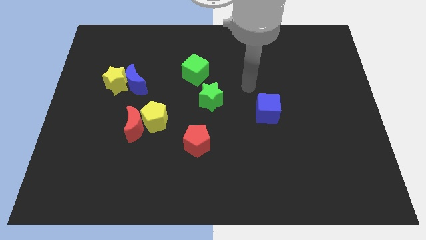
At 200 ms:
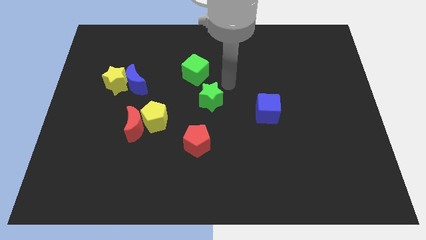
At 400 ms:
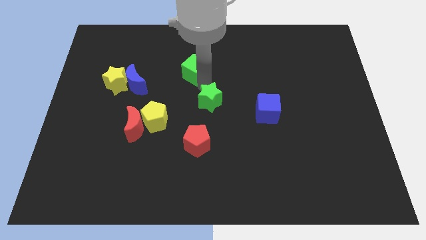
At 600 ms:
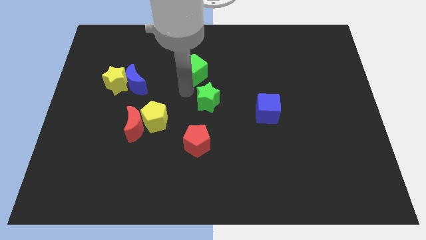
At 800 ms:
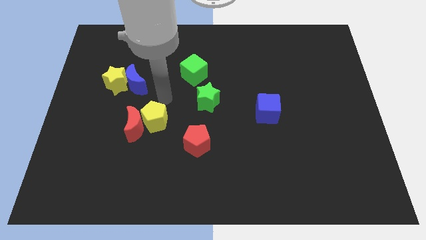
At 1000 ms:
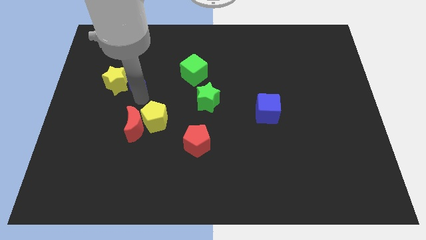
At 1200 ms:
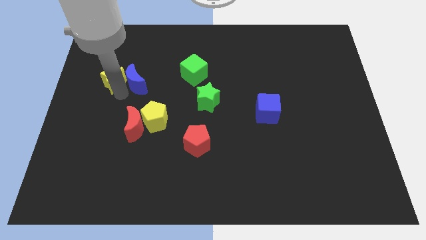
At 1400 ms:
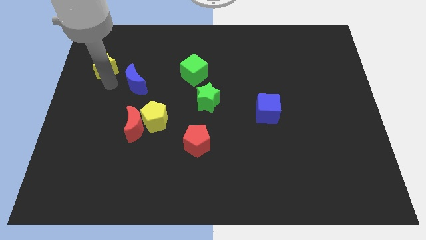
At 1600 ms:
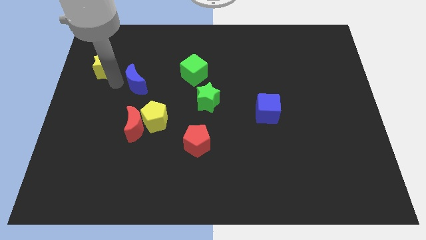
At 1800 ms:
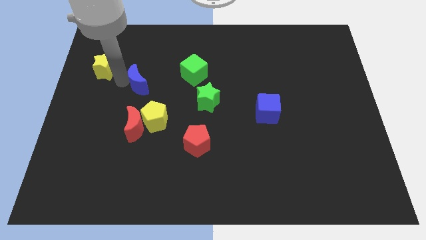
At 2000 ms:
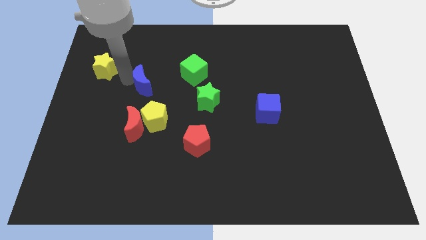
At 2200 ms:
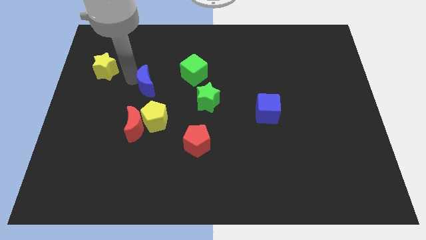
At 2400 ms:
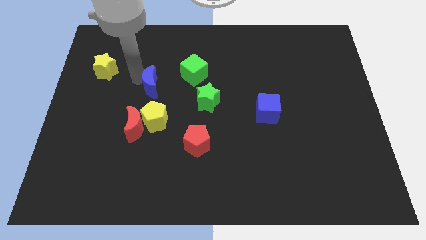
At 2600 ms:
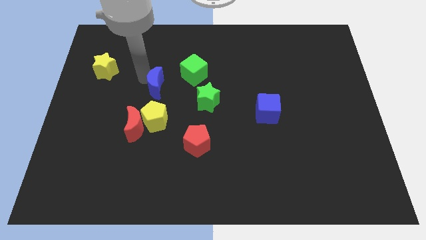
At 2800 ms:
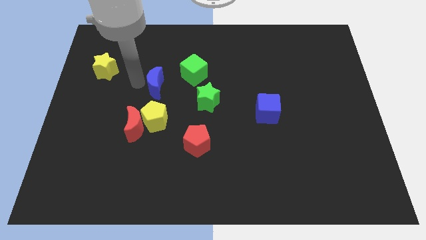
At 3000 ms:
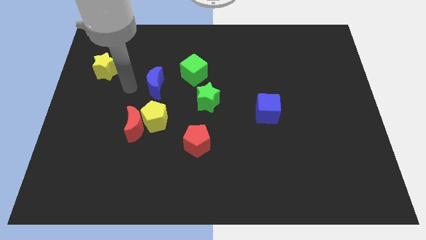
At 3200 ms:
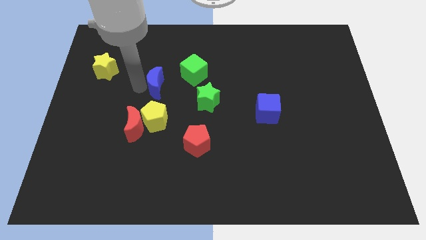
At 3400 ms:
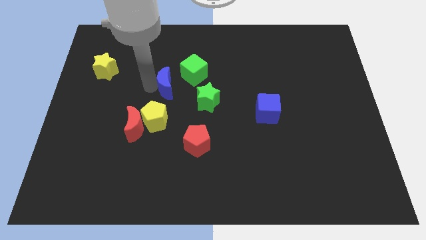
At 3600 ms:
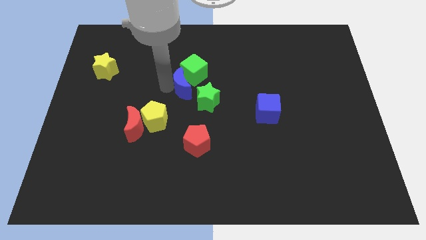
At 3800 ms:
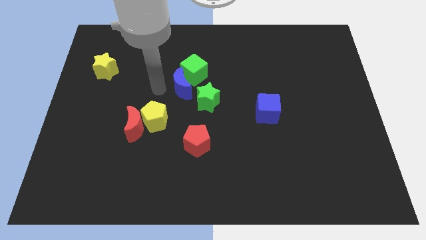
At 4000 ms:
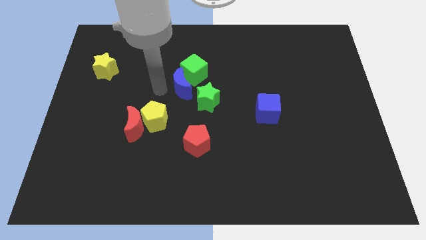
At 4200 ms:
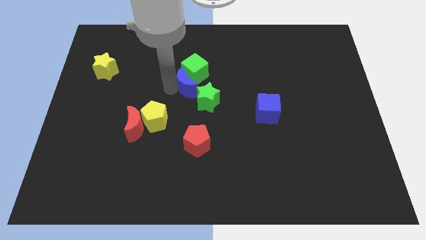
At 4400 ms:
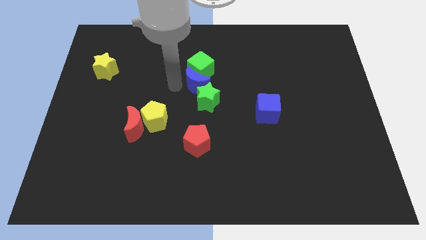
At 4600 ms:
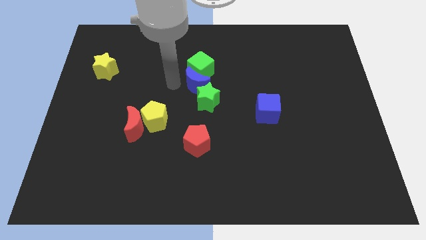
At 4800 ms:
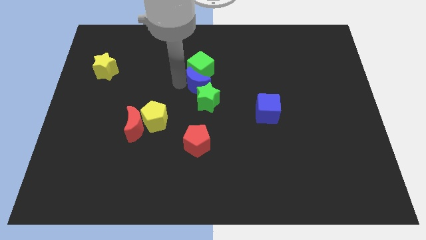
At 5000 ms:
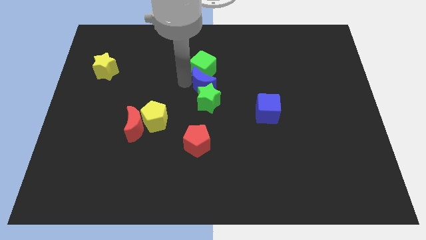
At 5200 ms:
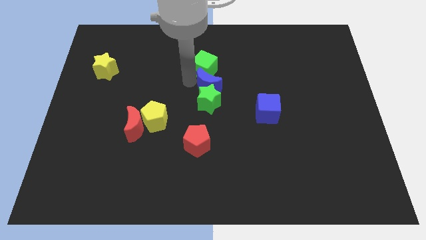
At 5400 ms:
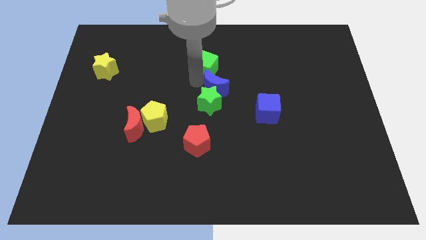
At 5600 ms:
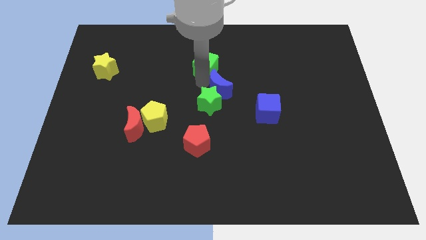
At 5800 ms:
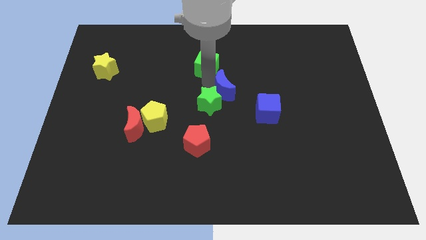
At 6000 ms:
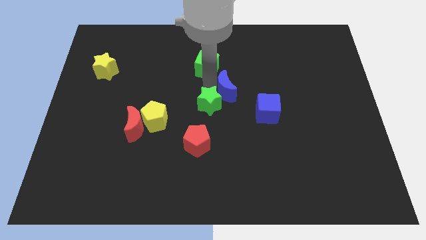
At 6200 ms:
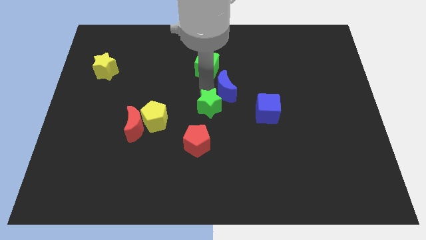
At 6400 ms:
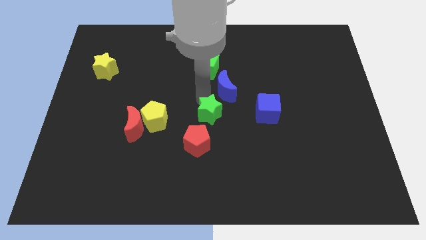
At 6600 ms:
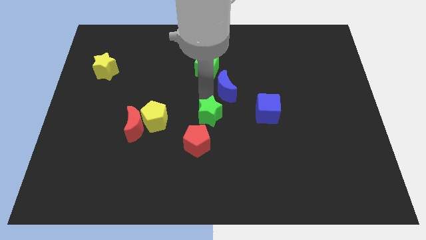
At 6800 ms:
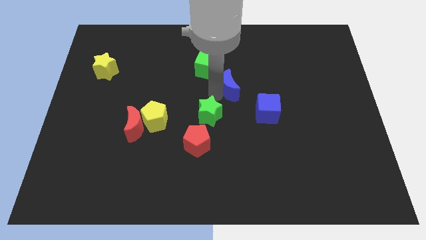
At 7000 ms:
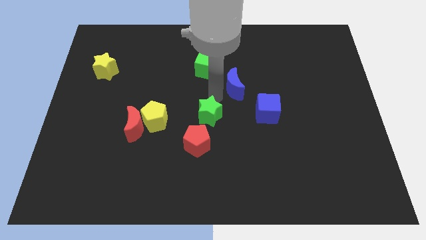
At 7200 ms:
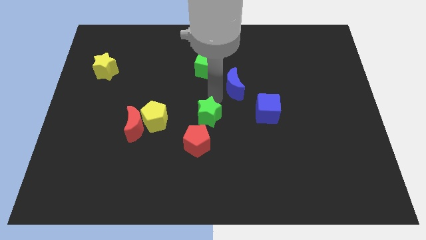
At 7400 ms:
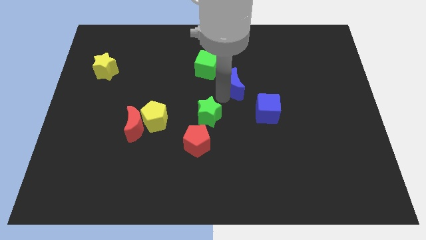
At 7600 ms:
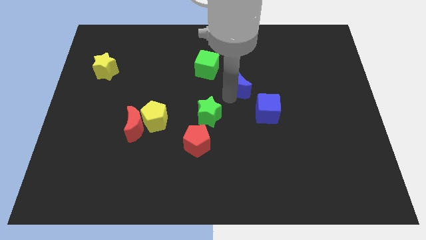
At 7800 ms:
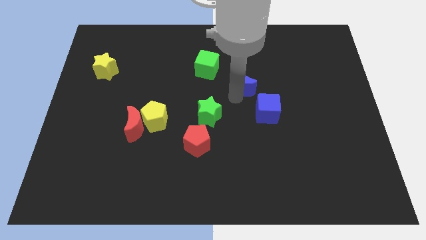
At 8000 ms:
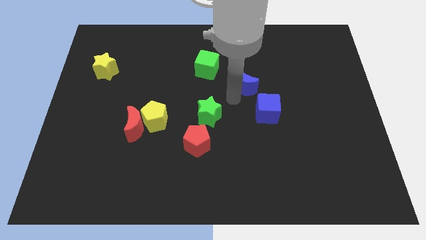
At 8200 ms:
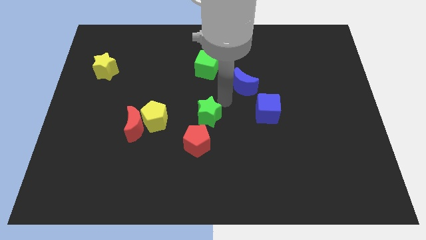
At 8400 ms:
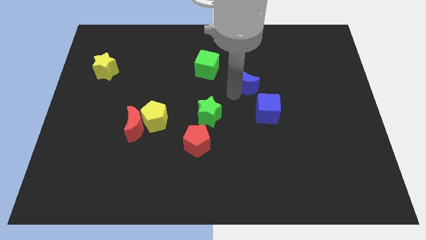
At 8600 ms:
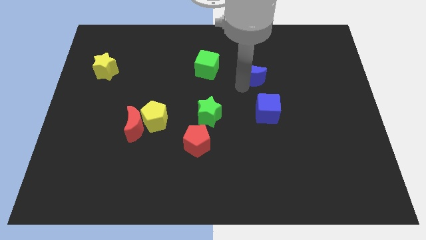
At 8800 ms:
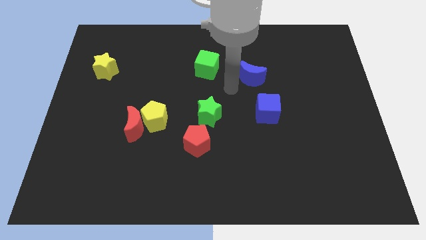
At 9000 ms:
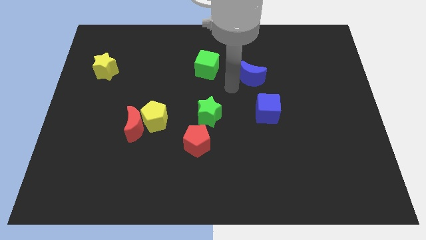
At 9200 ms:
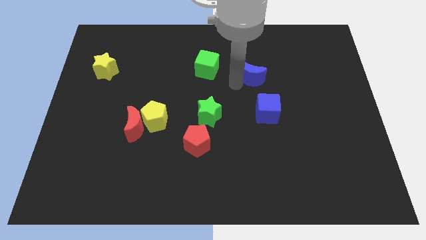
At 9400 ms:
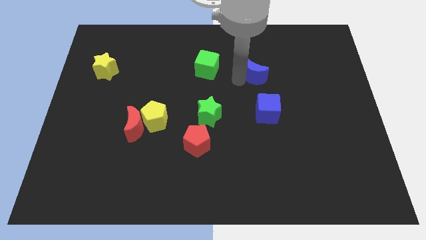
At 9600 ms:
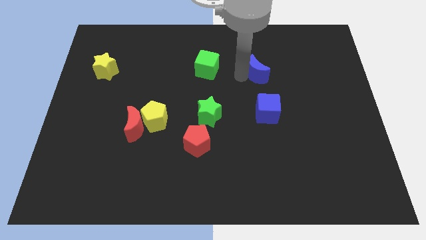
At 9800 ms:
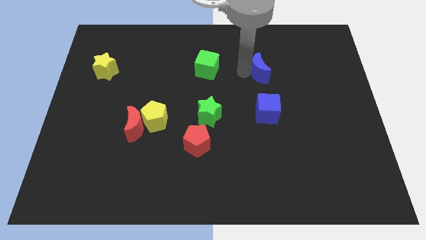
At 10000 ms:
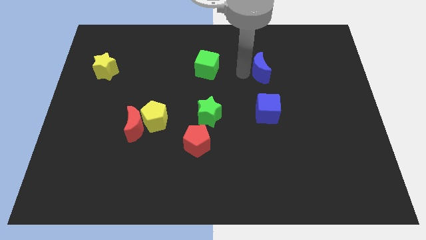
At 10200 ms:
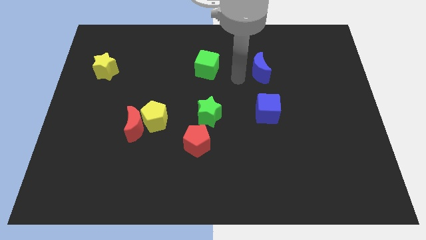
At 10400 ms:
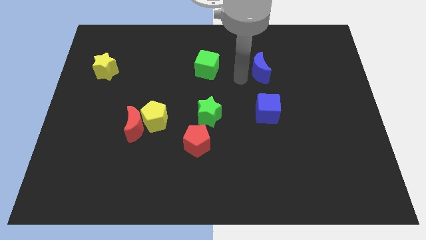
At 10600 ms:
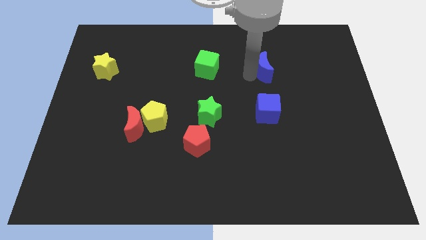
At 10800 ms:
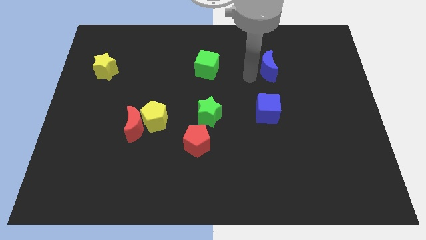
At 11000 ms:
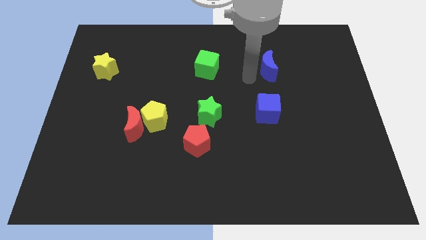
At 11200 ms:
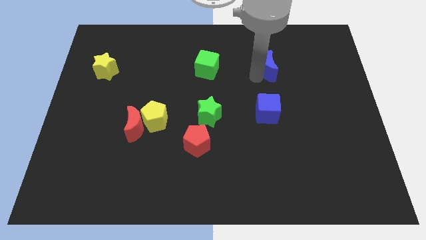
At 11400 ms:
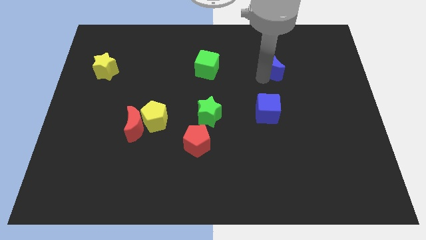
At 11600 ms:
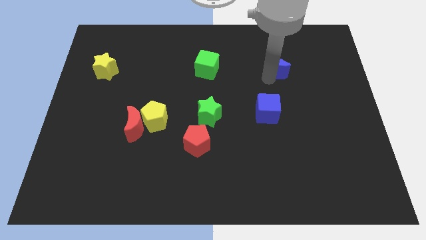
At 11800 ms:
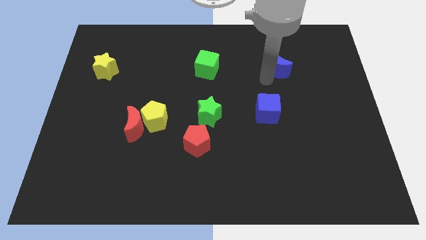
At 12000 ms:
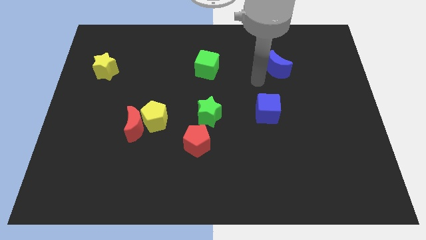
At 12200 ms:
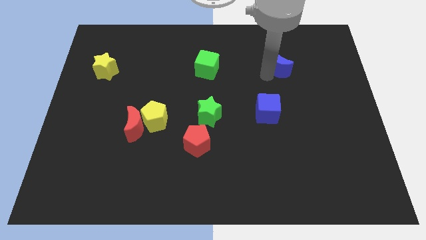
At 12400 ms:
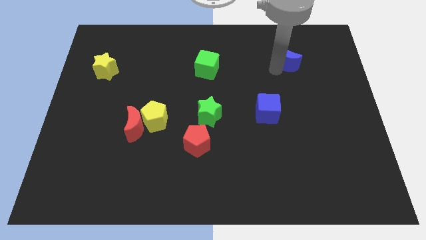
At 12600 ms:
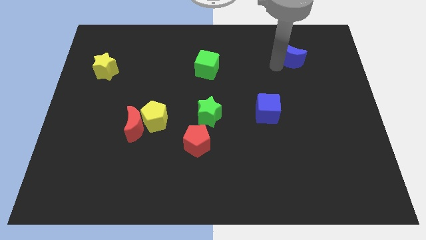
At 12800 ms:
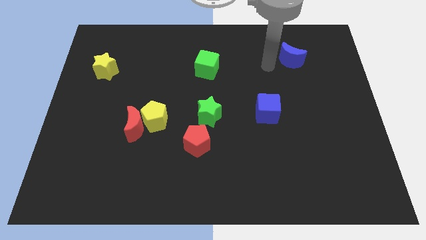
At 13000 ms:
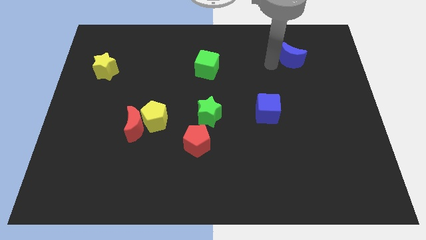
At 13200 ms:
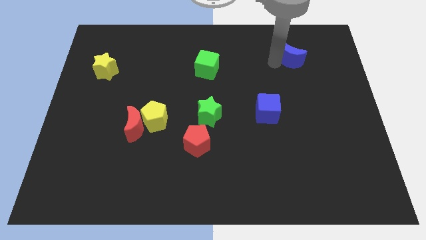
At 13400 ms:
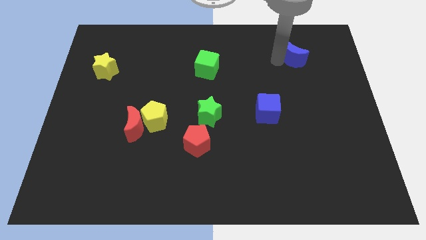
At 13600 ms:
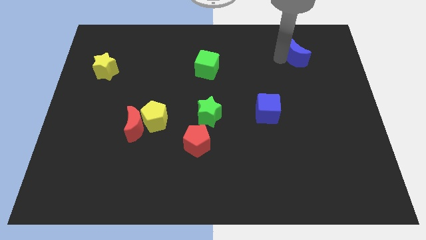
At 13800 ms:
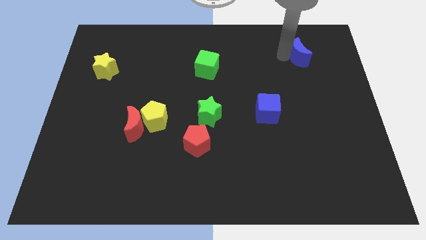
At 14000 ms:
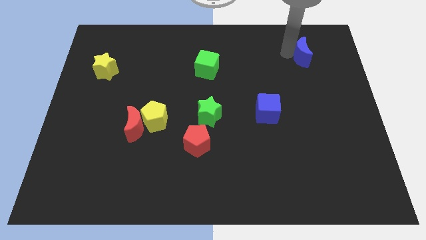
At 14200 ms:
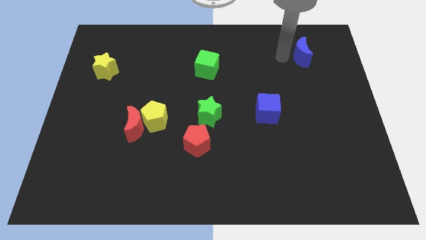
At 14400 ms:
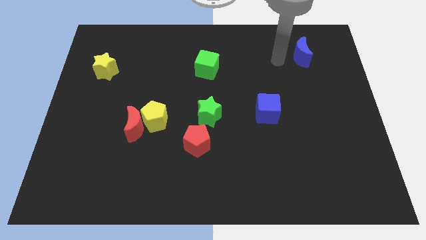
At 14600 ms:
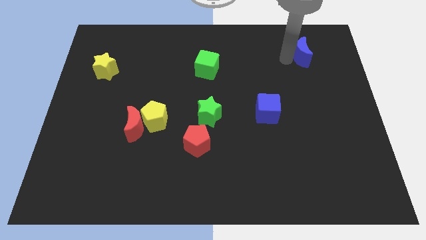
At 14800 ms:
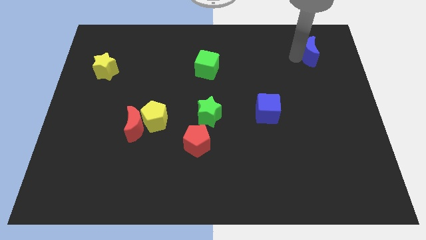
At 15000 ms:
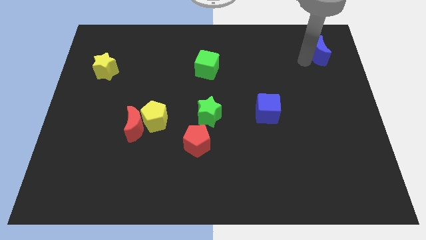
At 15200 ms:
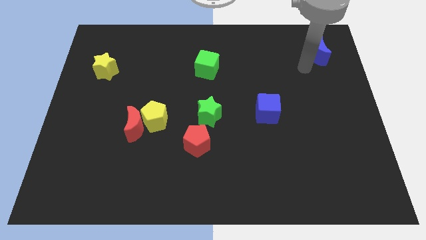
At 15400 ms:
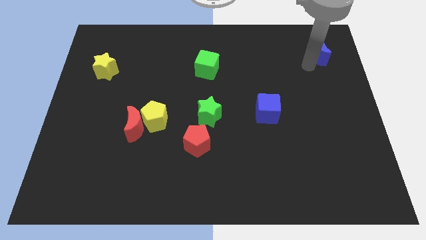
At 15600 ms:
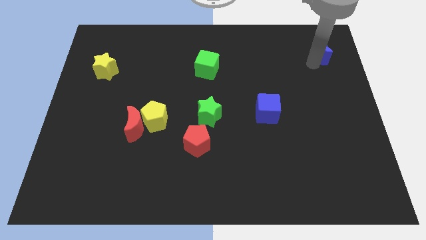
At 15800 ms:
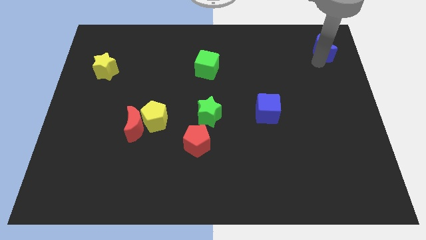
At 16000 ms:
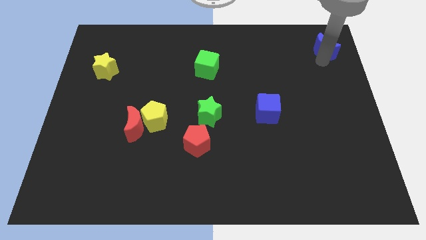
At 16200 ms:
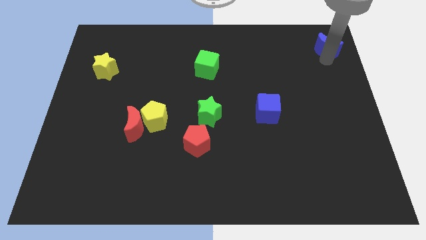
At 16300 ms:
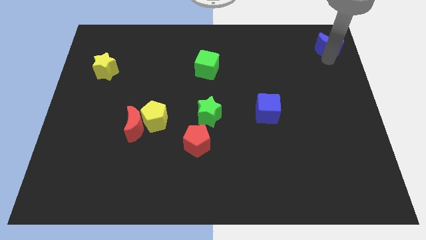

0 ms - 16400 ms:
move the blue moon to the top right corner

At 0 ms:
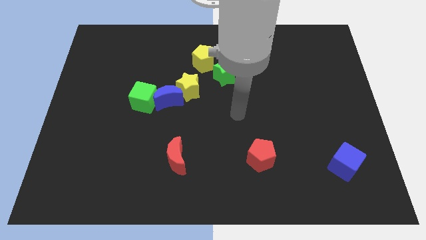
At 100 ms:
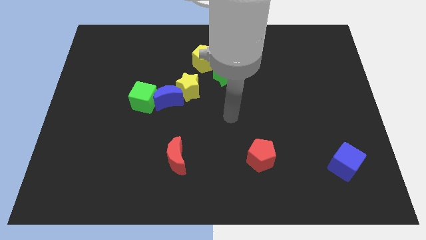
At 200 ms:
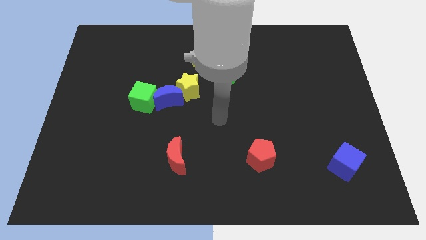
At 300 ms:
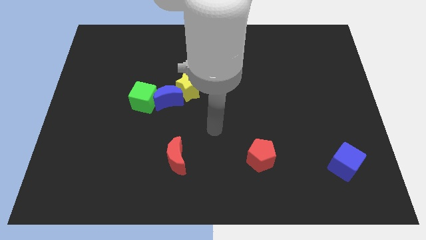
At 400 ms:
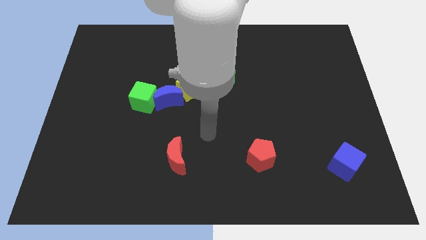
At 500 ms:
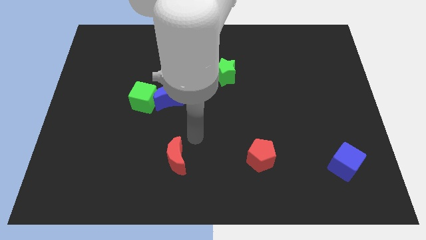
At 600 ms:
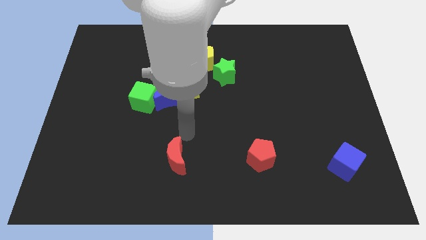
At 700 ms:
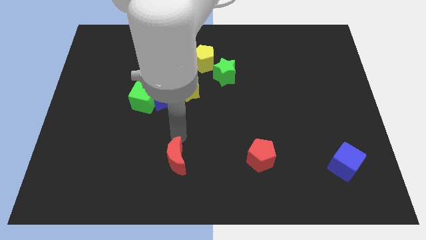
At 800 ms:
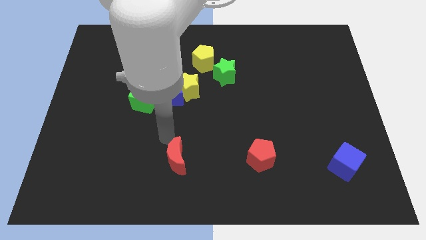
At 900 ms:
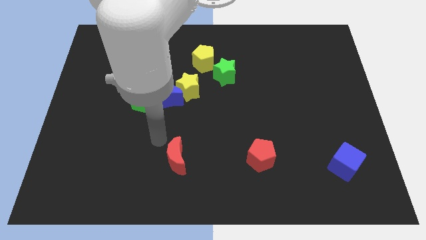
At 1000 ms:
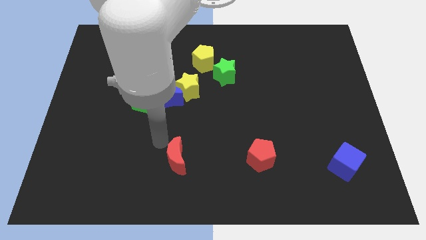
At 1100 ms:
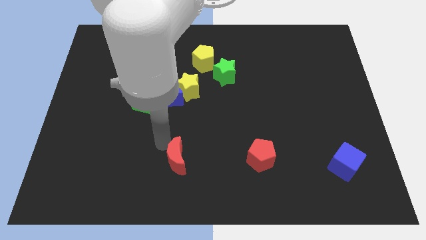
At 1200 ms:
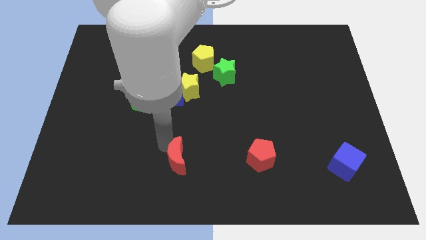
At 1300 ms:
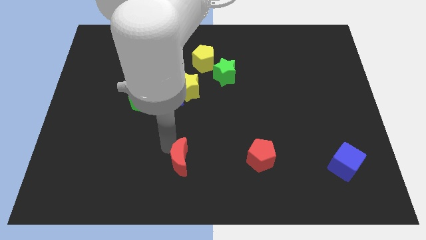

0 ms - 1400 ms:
slide the red moon to the bottom
